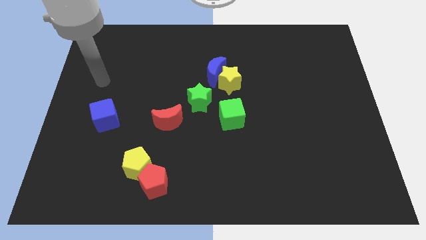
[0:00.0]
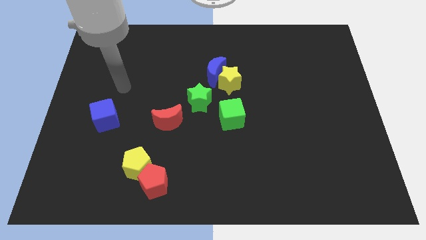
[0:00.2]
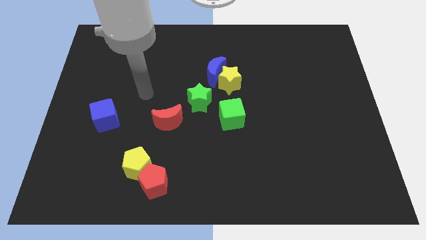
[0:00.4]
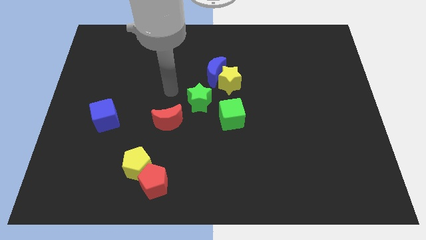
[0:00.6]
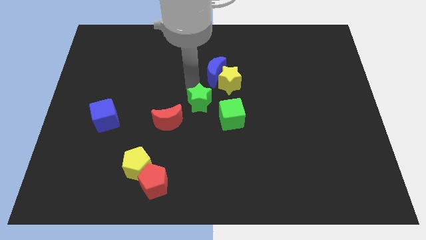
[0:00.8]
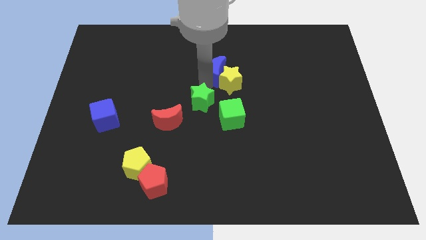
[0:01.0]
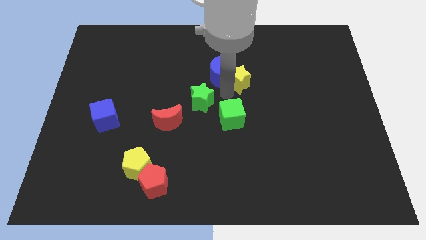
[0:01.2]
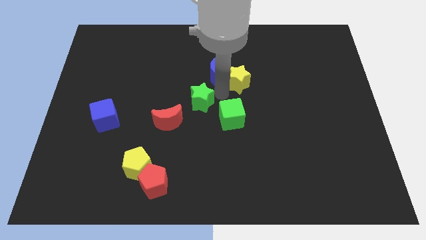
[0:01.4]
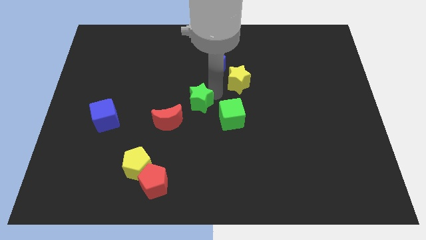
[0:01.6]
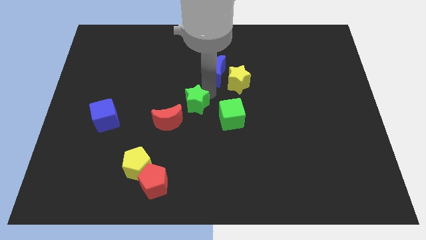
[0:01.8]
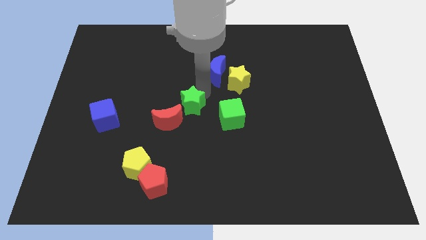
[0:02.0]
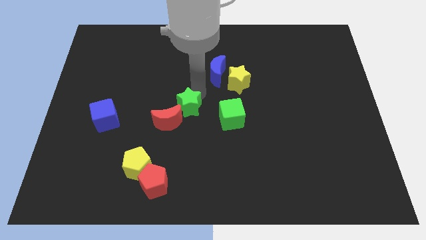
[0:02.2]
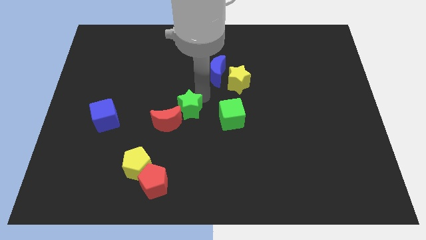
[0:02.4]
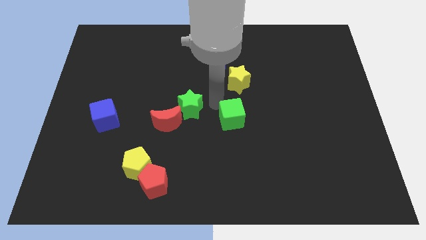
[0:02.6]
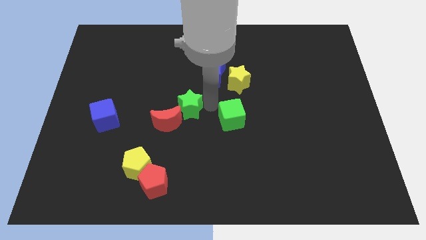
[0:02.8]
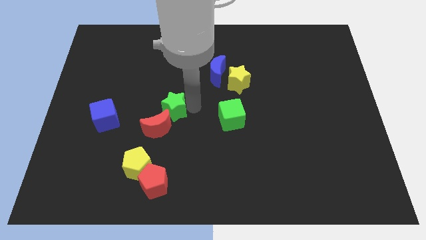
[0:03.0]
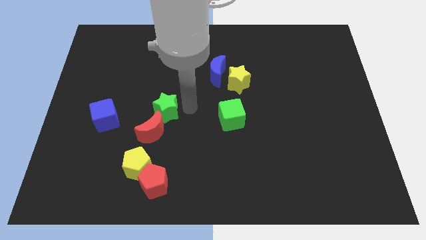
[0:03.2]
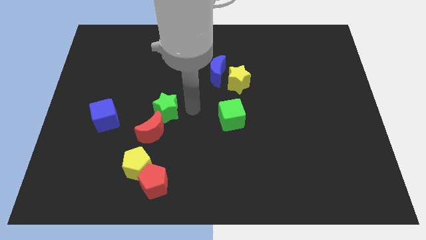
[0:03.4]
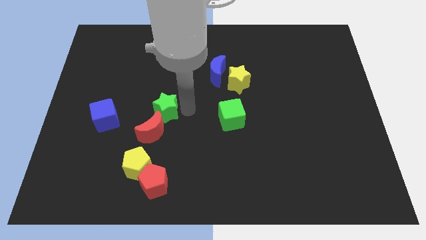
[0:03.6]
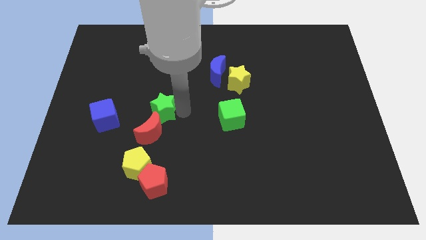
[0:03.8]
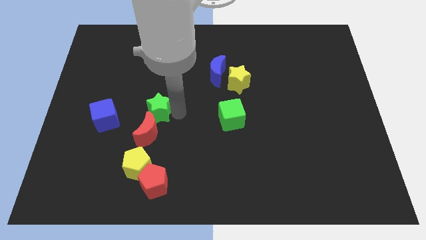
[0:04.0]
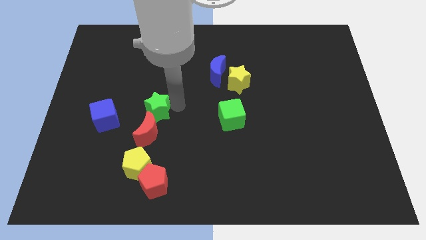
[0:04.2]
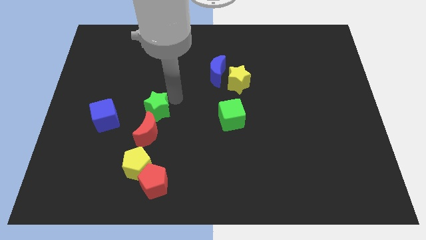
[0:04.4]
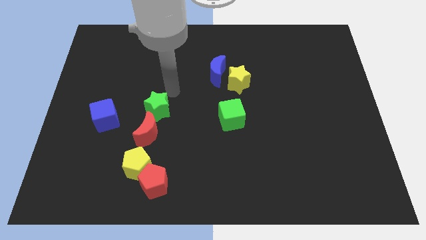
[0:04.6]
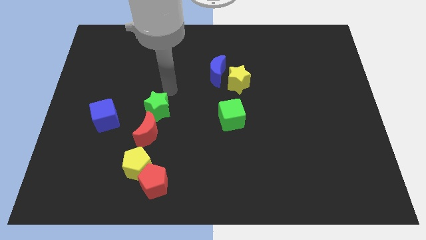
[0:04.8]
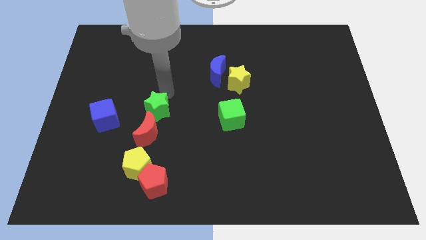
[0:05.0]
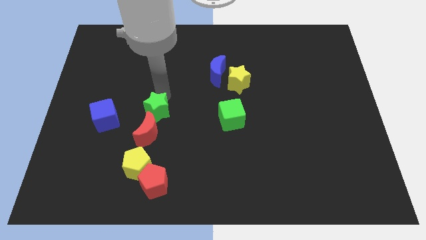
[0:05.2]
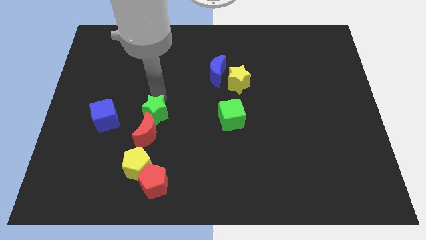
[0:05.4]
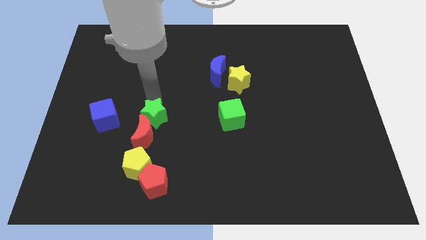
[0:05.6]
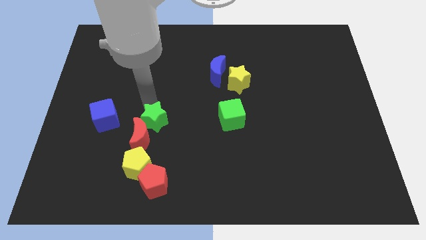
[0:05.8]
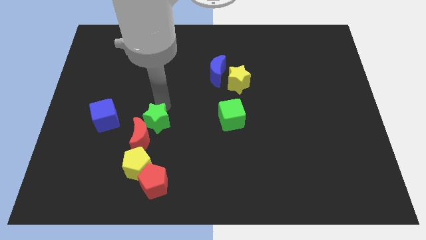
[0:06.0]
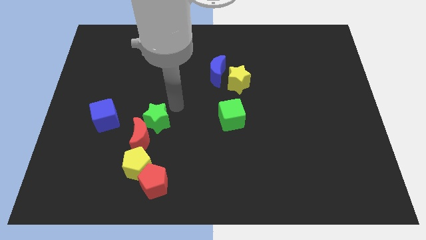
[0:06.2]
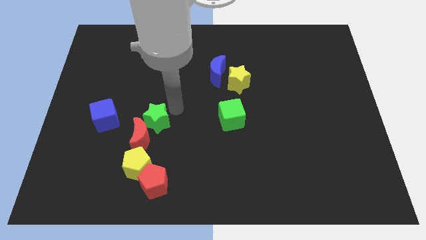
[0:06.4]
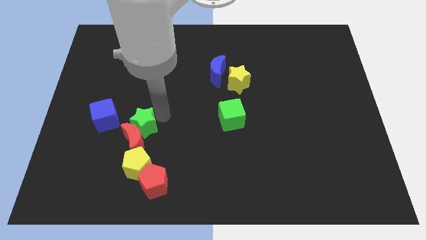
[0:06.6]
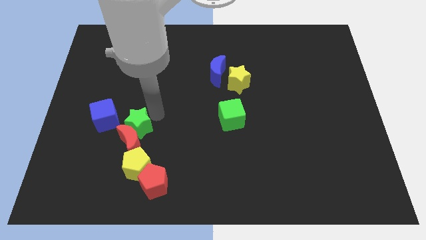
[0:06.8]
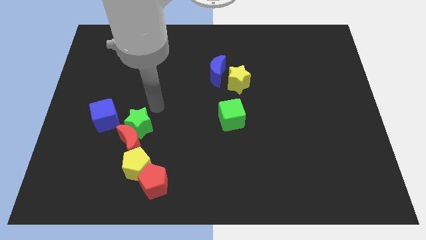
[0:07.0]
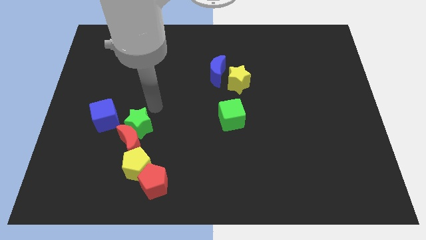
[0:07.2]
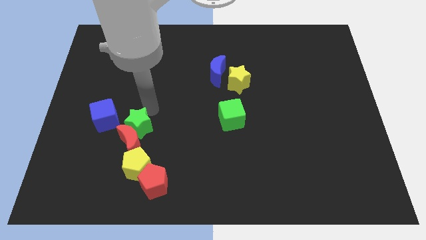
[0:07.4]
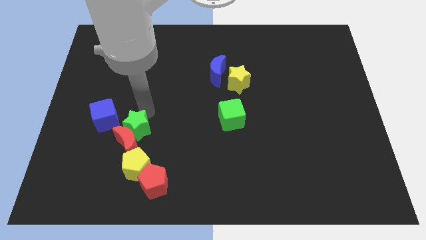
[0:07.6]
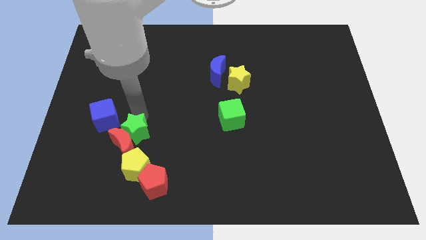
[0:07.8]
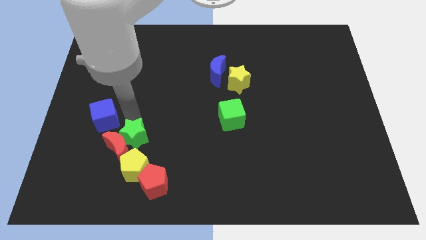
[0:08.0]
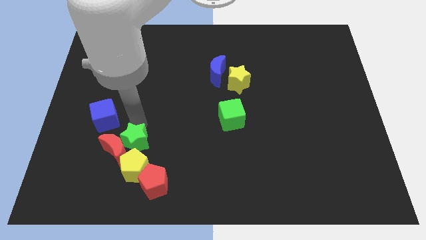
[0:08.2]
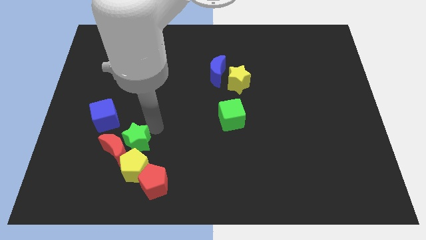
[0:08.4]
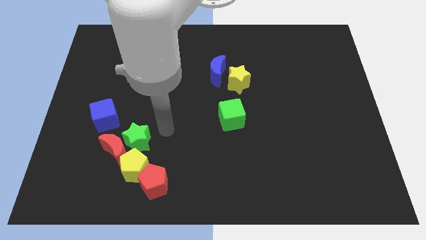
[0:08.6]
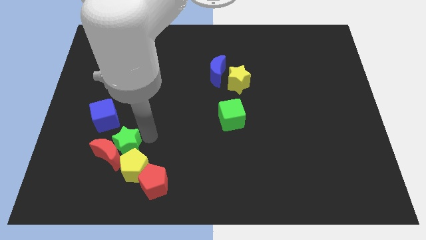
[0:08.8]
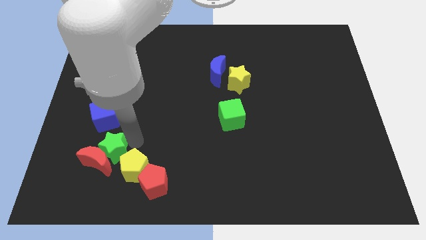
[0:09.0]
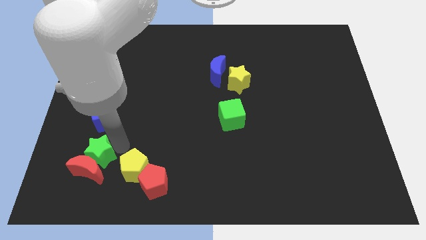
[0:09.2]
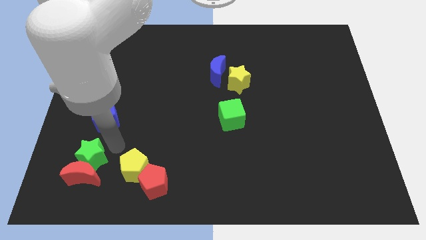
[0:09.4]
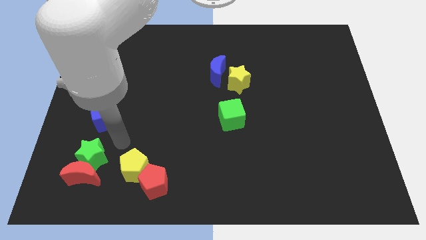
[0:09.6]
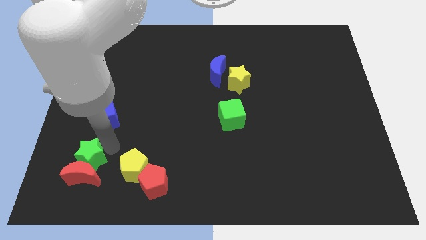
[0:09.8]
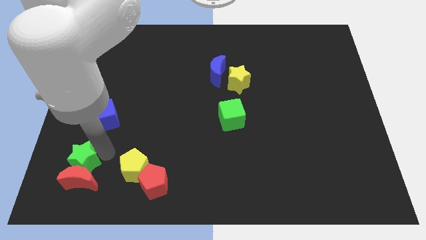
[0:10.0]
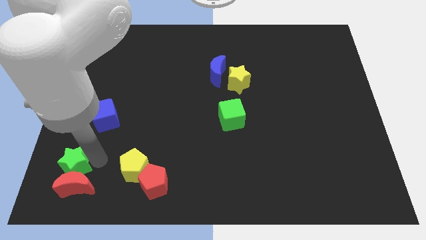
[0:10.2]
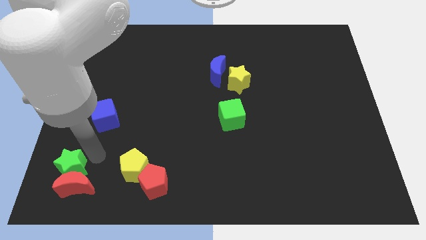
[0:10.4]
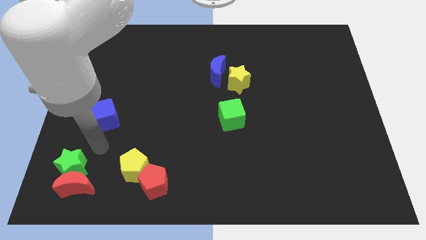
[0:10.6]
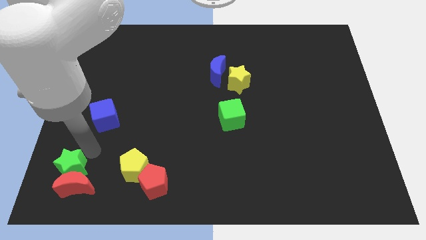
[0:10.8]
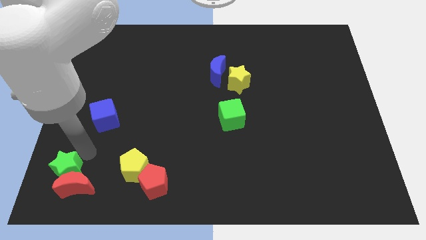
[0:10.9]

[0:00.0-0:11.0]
put the green star to the bottom left

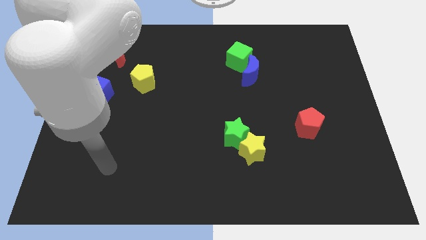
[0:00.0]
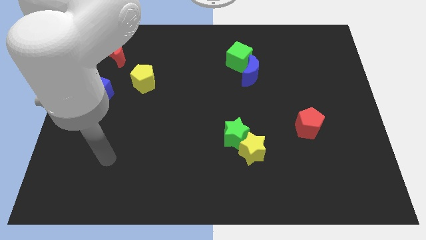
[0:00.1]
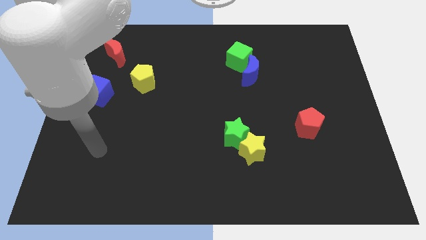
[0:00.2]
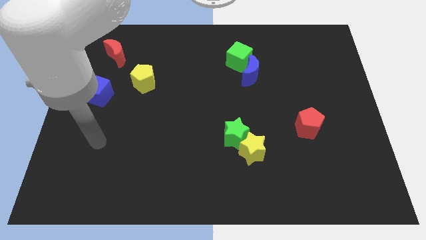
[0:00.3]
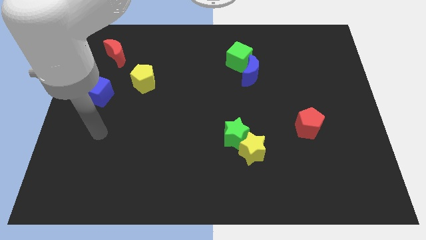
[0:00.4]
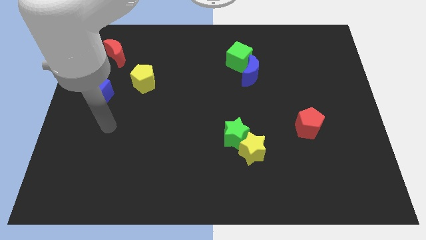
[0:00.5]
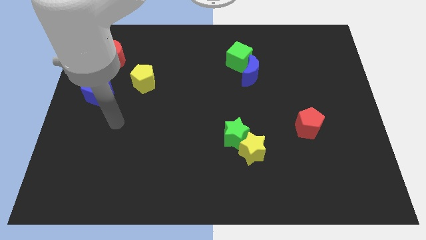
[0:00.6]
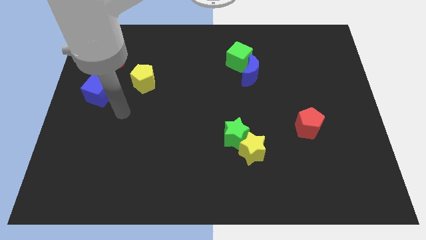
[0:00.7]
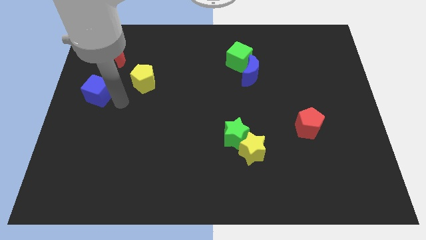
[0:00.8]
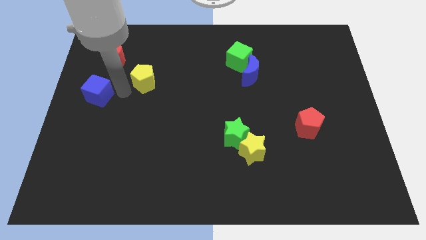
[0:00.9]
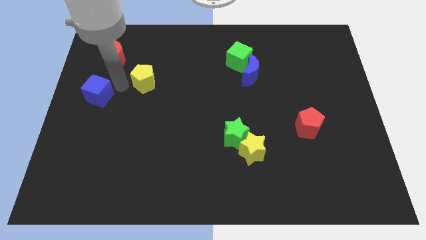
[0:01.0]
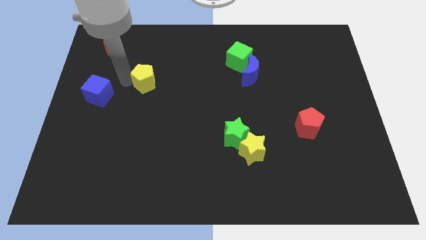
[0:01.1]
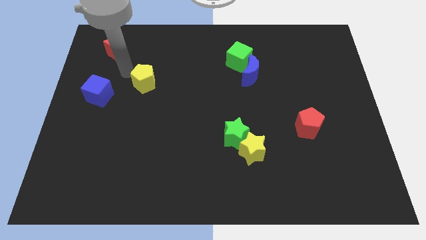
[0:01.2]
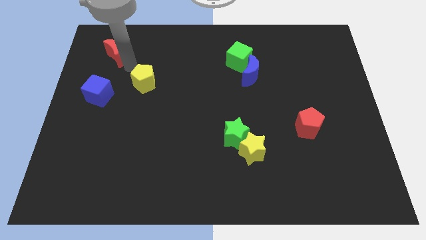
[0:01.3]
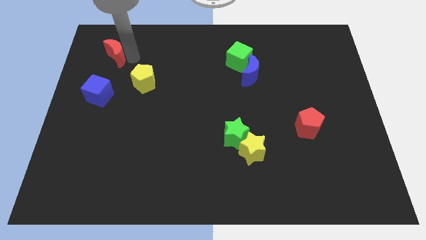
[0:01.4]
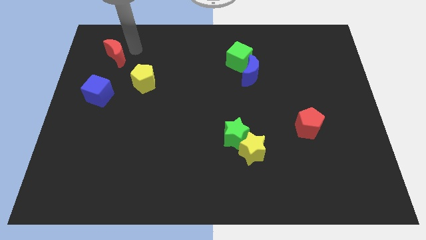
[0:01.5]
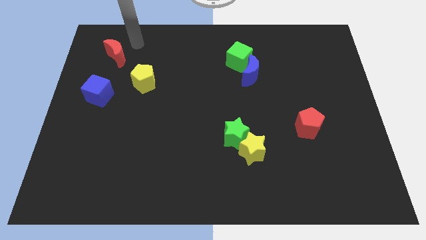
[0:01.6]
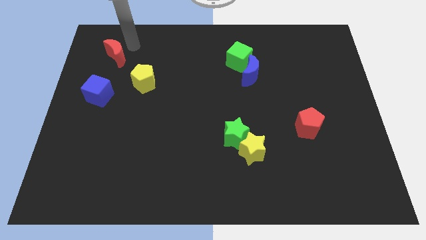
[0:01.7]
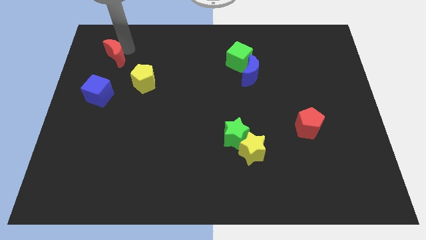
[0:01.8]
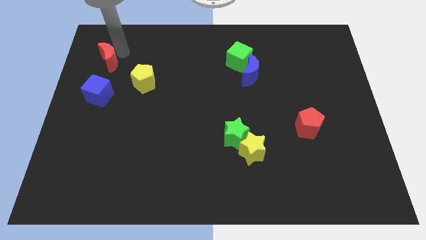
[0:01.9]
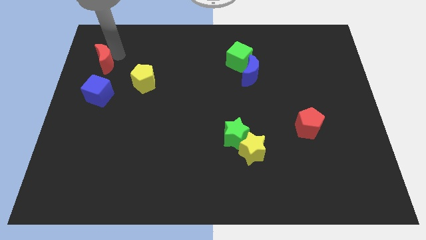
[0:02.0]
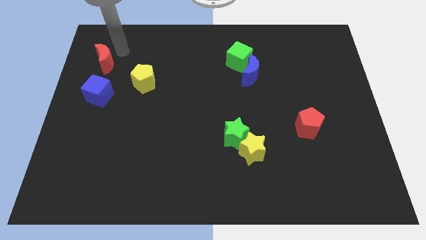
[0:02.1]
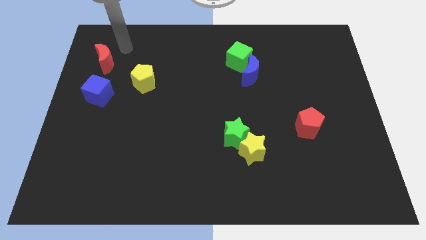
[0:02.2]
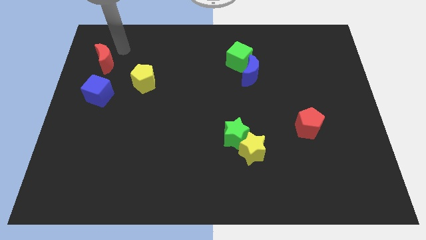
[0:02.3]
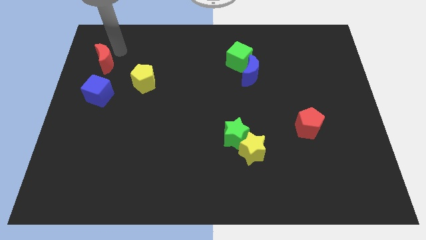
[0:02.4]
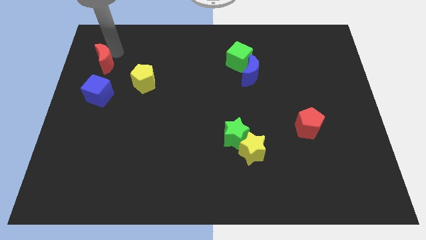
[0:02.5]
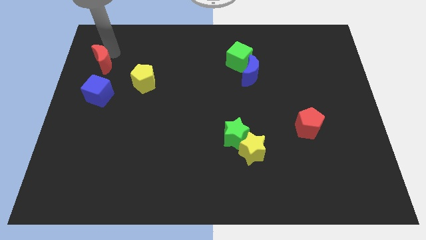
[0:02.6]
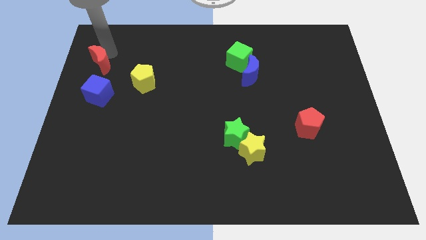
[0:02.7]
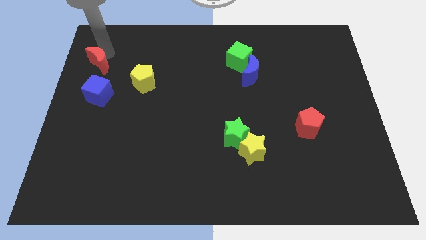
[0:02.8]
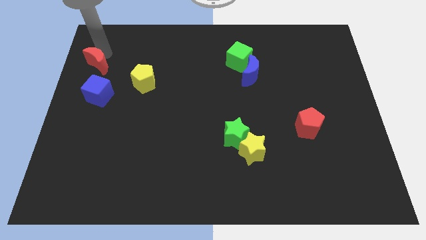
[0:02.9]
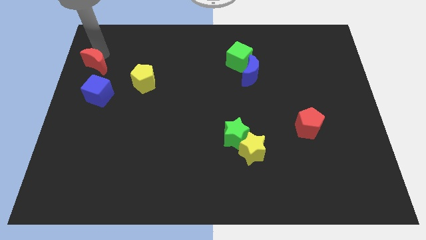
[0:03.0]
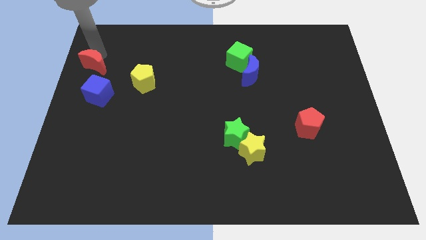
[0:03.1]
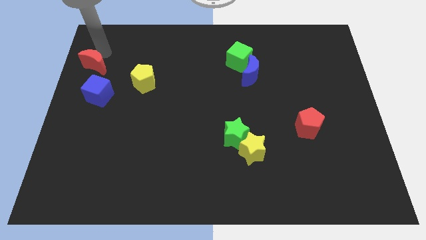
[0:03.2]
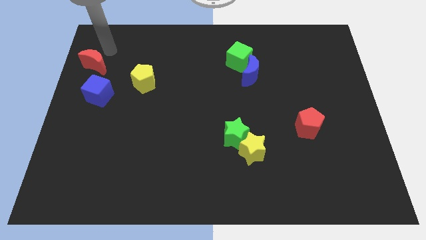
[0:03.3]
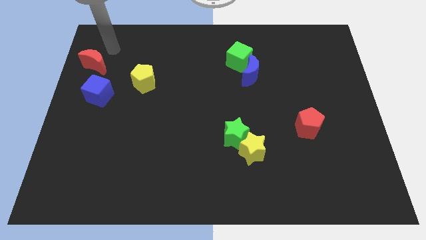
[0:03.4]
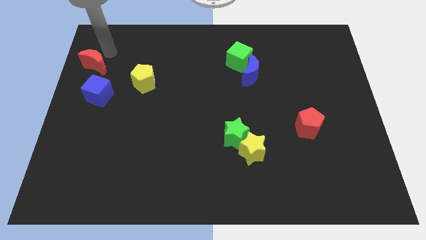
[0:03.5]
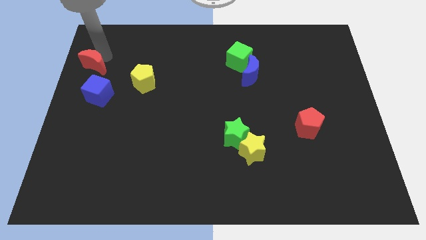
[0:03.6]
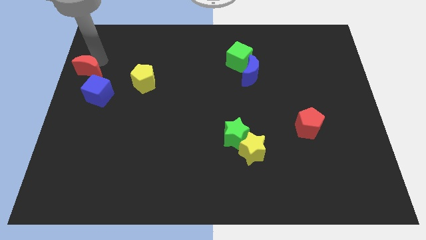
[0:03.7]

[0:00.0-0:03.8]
push the red moon to the center left
